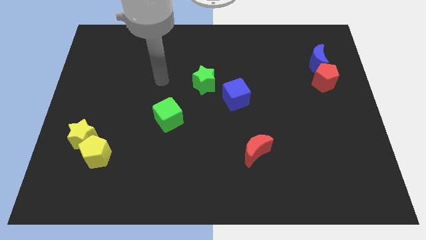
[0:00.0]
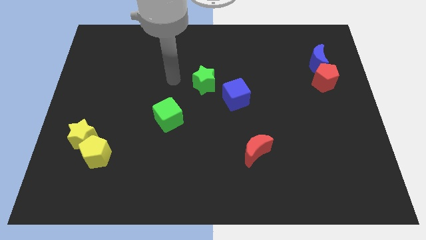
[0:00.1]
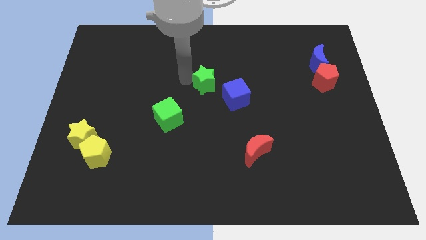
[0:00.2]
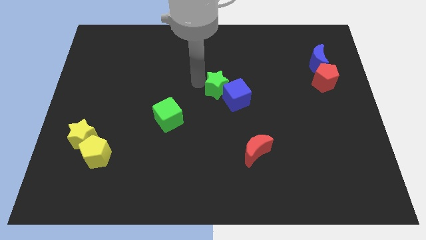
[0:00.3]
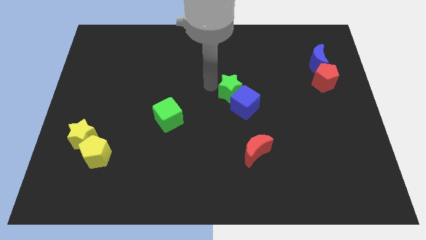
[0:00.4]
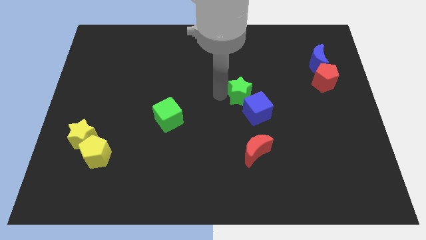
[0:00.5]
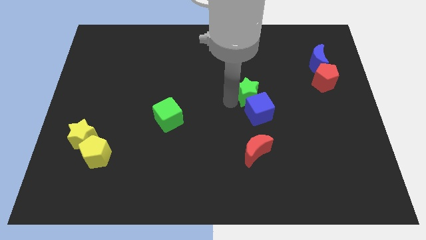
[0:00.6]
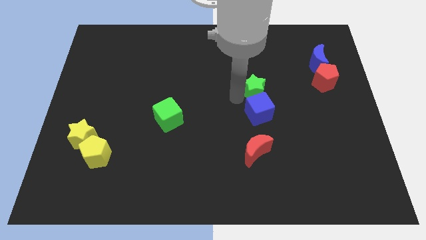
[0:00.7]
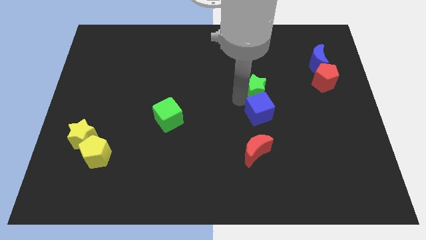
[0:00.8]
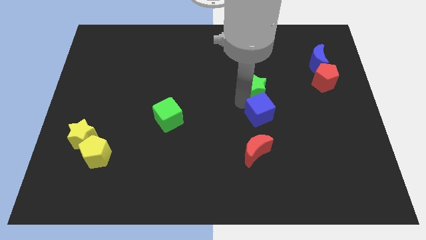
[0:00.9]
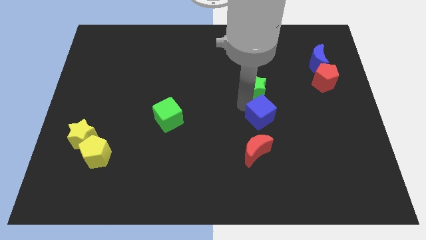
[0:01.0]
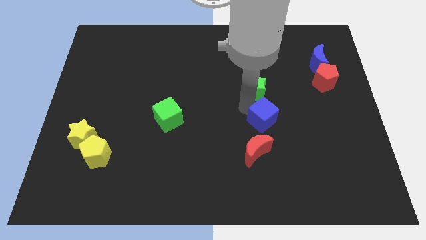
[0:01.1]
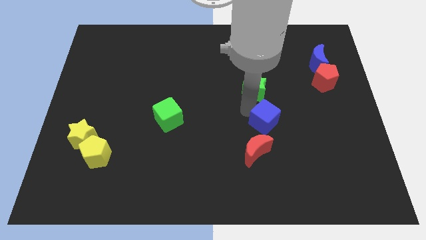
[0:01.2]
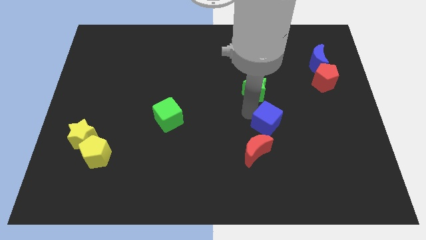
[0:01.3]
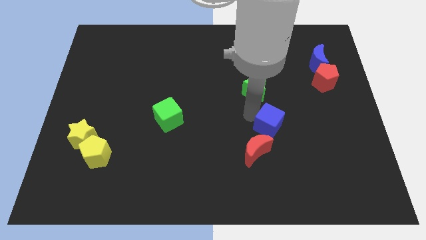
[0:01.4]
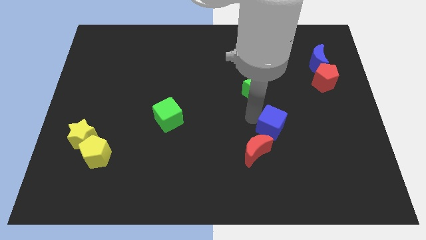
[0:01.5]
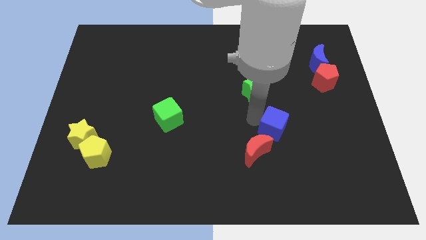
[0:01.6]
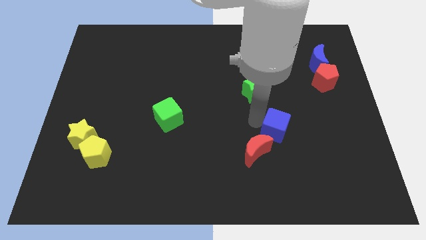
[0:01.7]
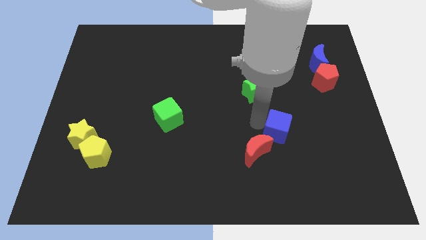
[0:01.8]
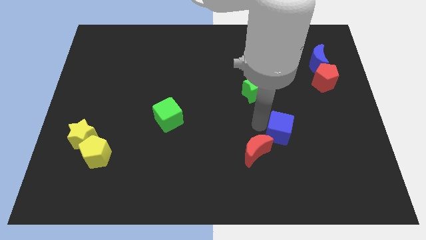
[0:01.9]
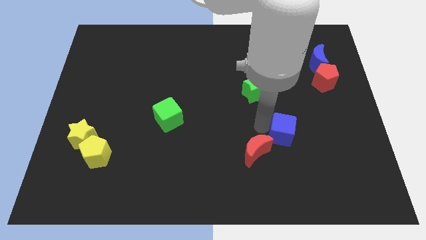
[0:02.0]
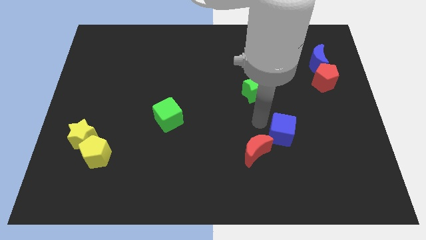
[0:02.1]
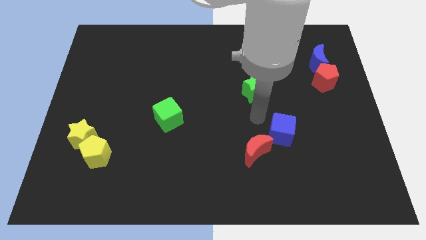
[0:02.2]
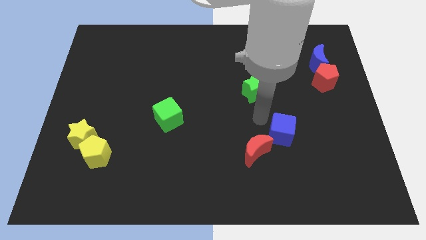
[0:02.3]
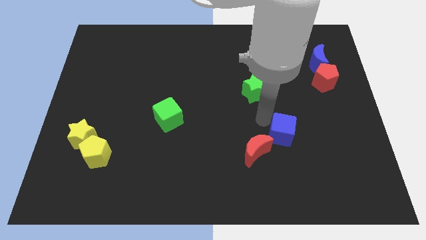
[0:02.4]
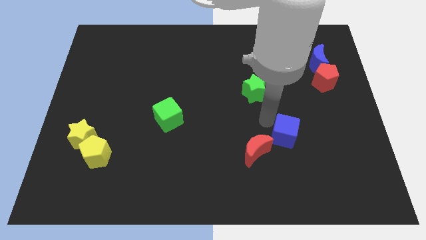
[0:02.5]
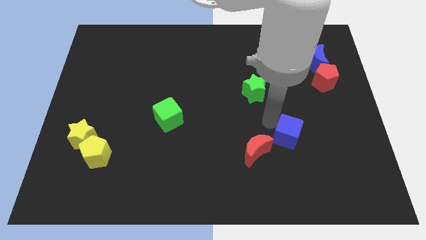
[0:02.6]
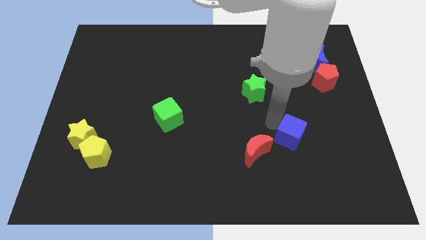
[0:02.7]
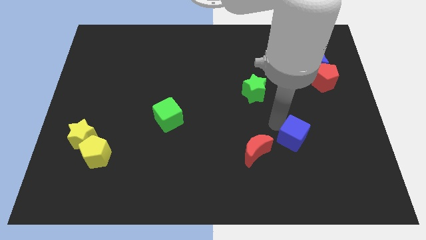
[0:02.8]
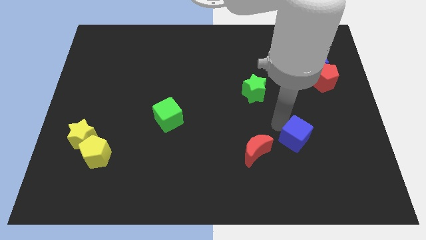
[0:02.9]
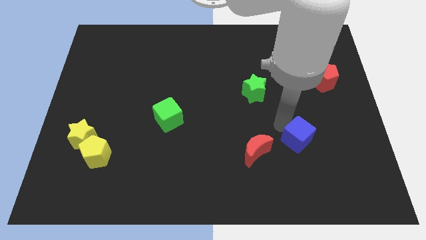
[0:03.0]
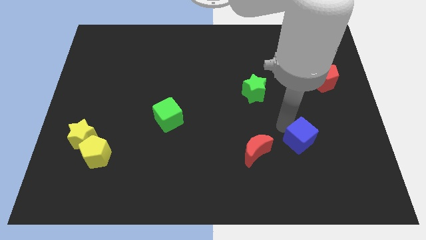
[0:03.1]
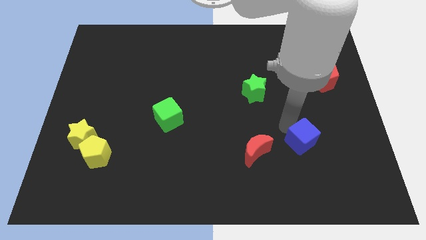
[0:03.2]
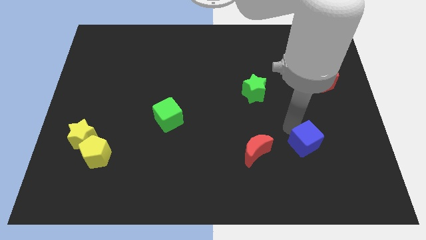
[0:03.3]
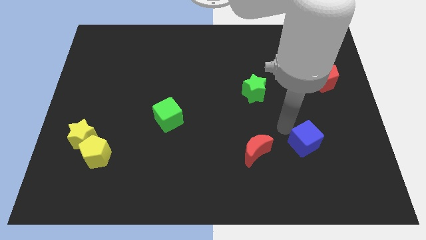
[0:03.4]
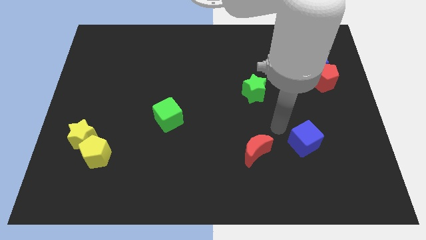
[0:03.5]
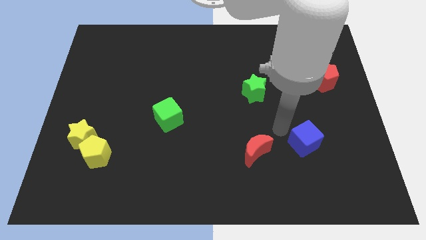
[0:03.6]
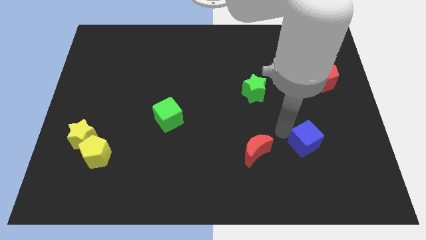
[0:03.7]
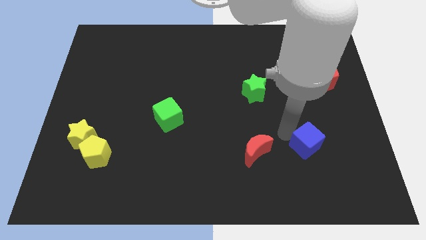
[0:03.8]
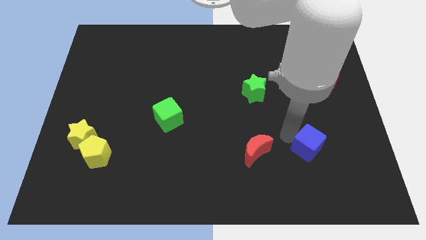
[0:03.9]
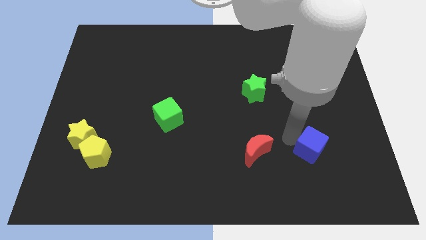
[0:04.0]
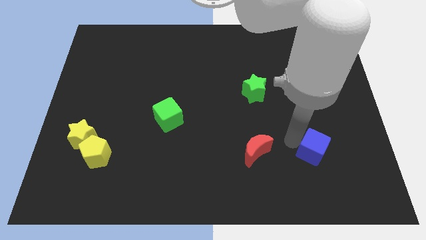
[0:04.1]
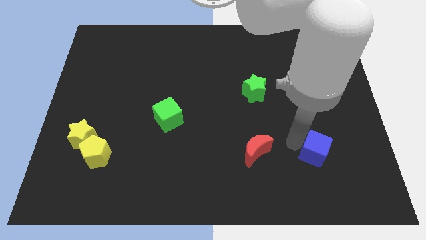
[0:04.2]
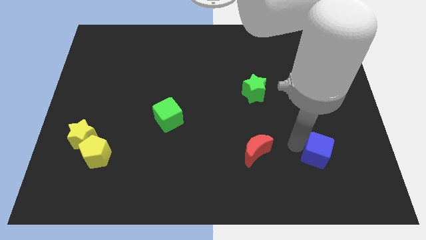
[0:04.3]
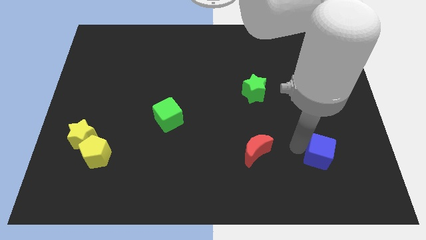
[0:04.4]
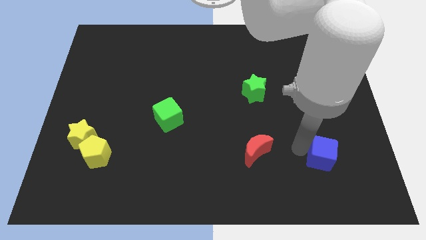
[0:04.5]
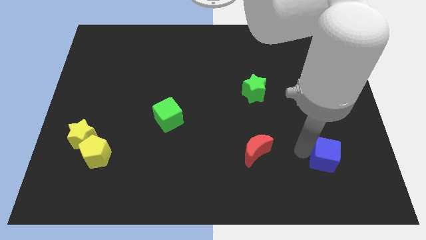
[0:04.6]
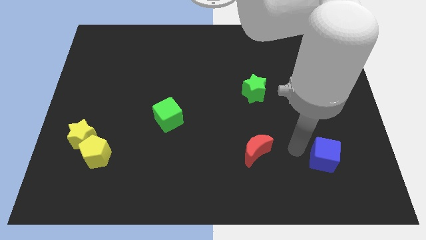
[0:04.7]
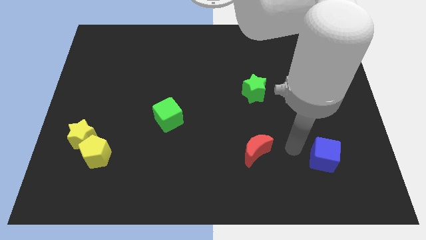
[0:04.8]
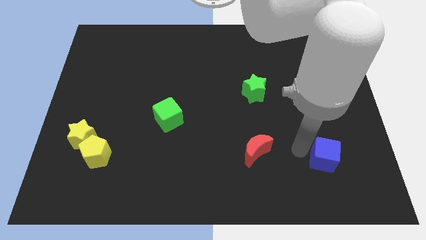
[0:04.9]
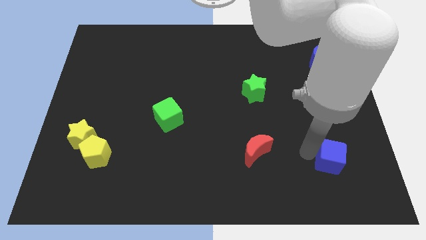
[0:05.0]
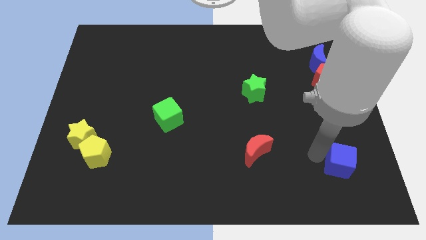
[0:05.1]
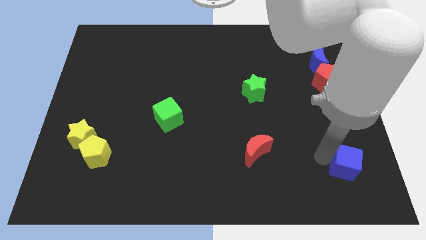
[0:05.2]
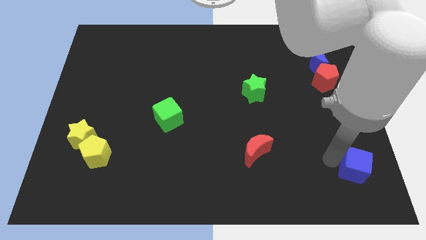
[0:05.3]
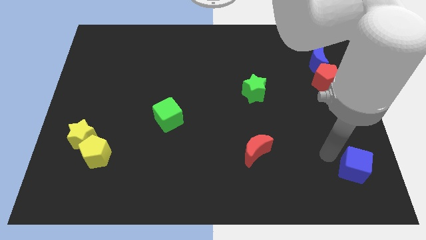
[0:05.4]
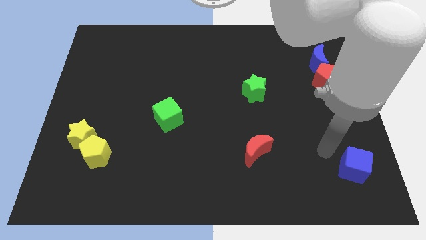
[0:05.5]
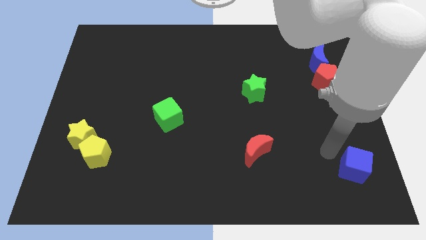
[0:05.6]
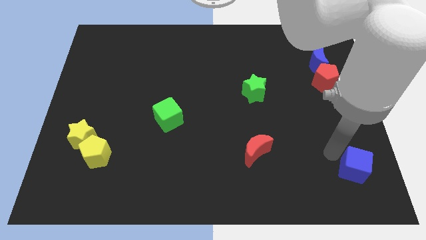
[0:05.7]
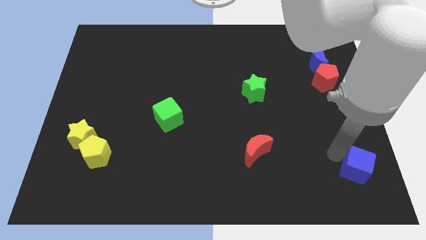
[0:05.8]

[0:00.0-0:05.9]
move the blue cube to the bottom right

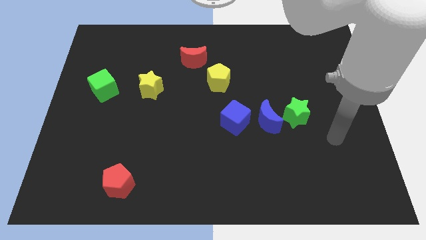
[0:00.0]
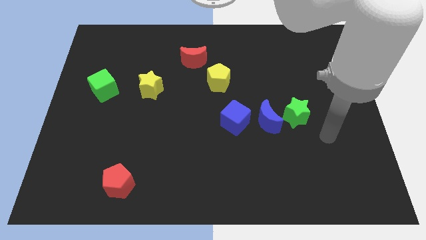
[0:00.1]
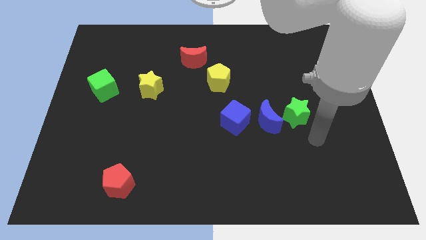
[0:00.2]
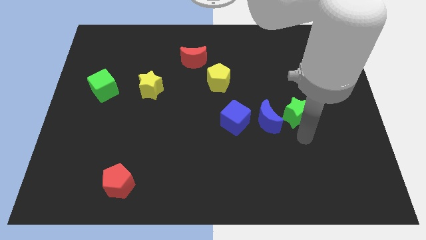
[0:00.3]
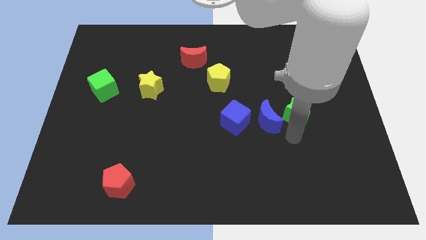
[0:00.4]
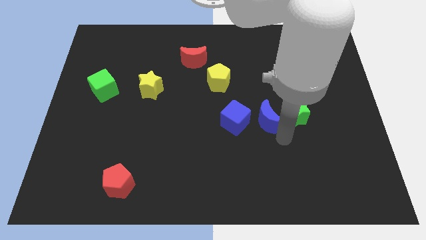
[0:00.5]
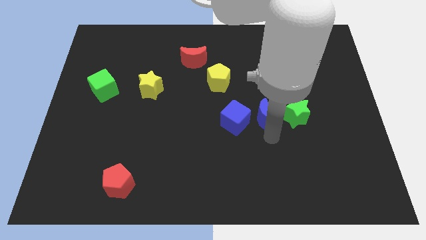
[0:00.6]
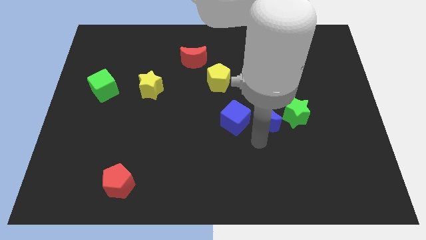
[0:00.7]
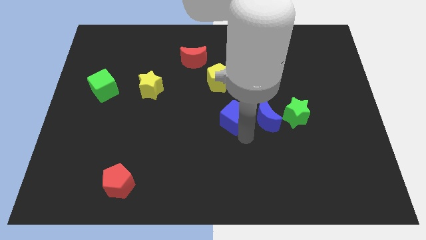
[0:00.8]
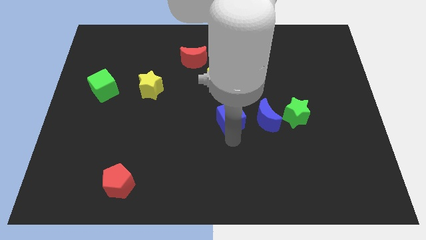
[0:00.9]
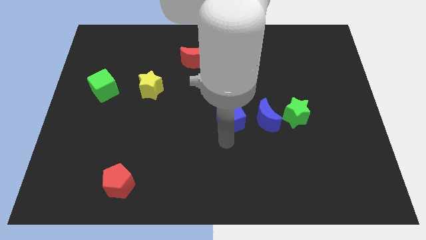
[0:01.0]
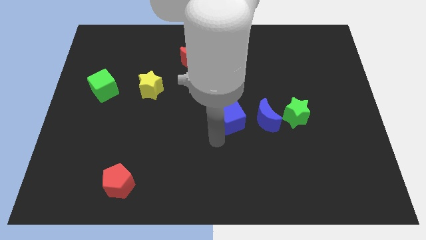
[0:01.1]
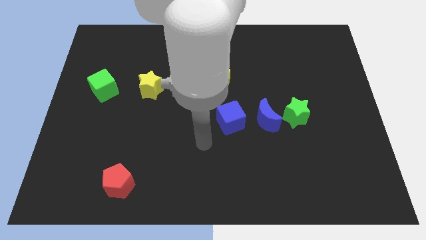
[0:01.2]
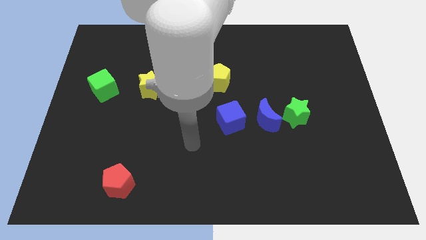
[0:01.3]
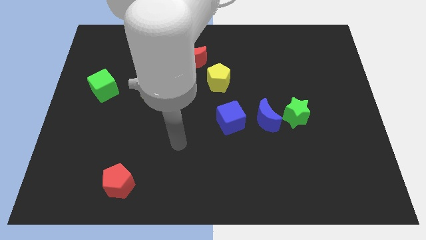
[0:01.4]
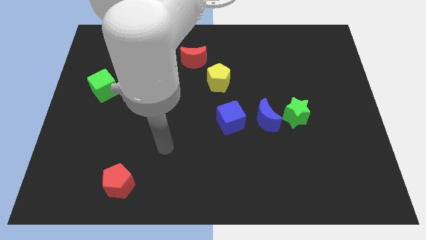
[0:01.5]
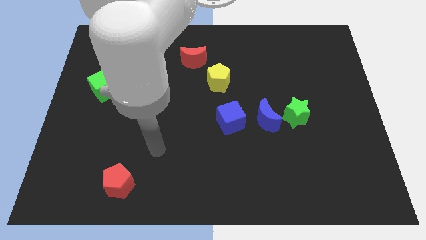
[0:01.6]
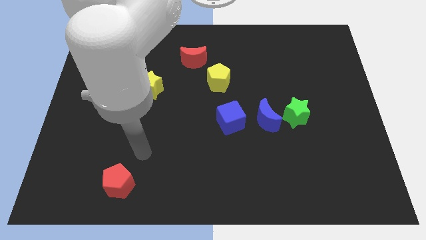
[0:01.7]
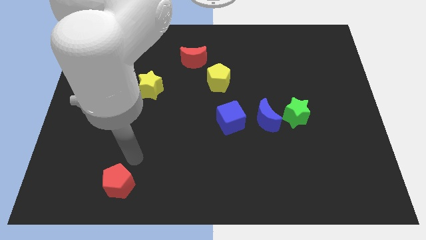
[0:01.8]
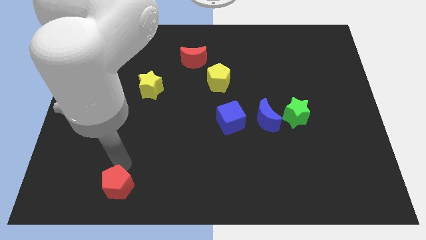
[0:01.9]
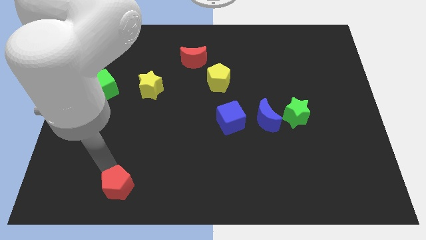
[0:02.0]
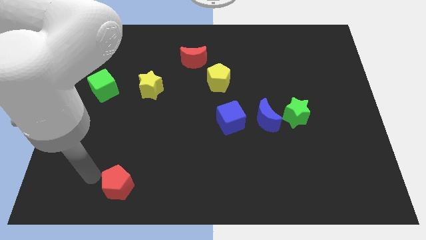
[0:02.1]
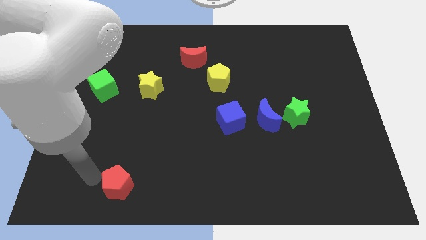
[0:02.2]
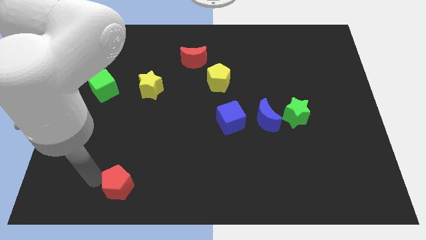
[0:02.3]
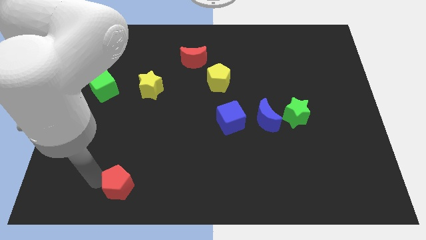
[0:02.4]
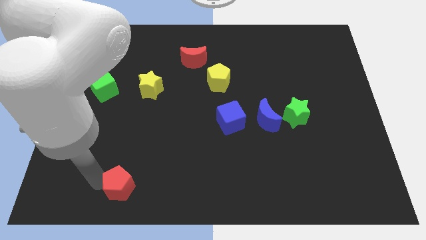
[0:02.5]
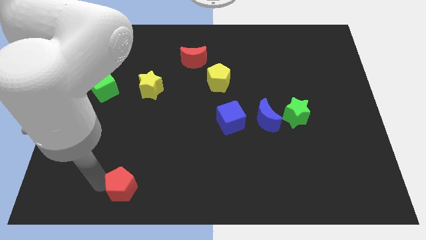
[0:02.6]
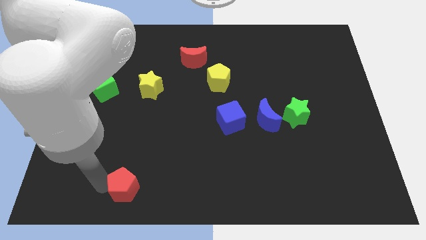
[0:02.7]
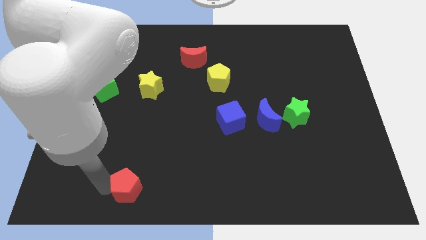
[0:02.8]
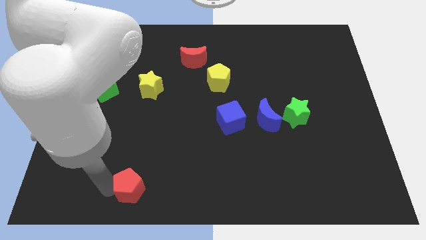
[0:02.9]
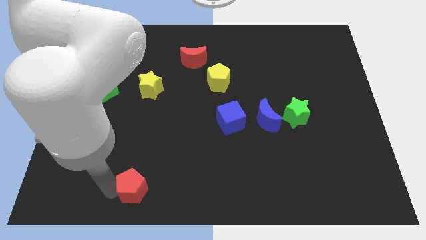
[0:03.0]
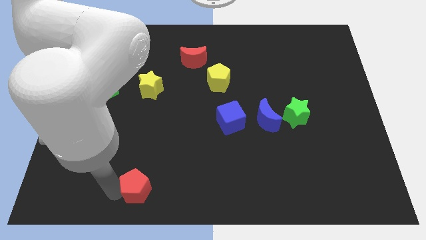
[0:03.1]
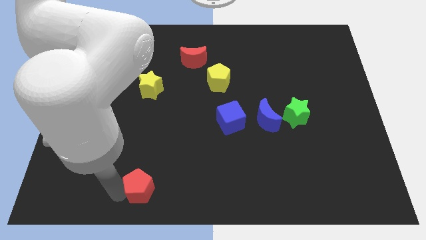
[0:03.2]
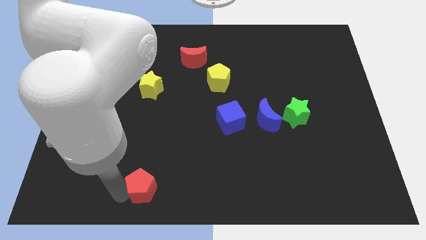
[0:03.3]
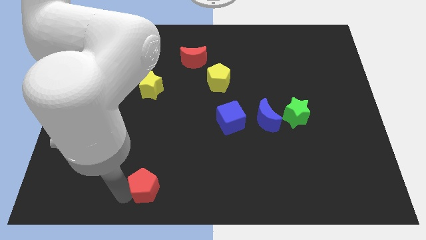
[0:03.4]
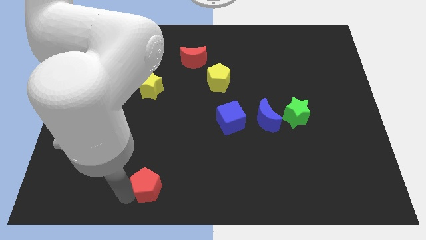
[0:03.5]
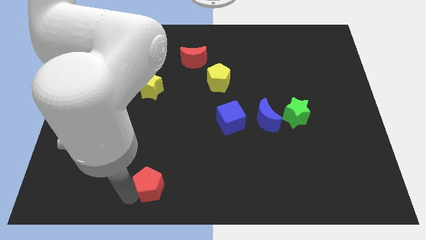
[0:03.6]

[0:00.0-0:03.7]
move the red pentagon to the bottom side
